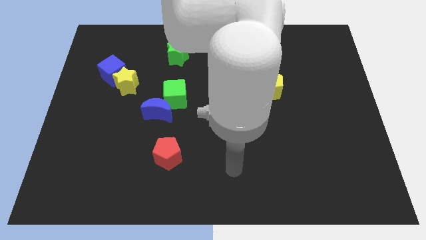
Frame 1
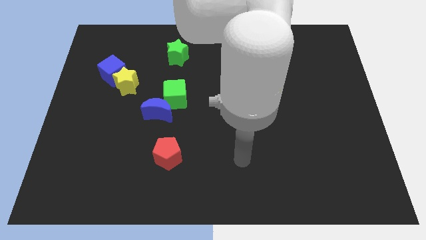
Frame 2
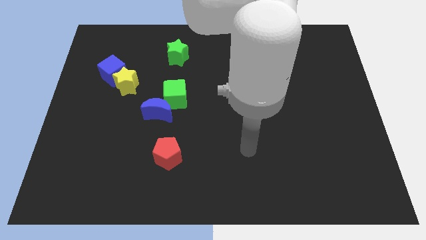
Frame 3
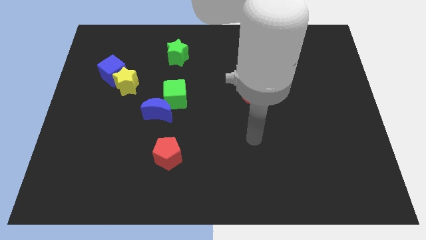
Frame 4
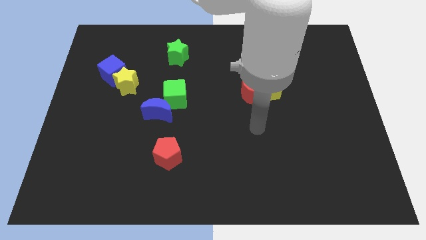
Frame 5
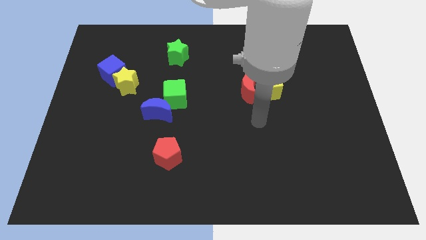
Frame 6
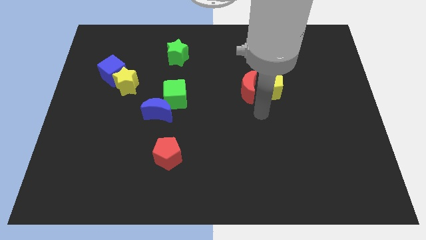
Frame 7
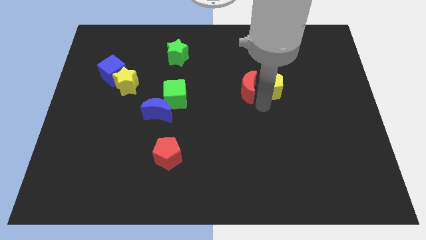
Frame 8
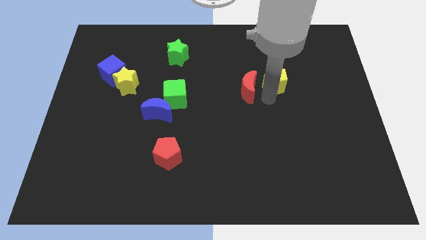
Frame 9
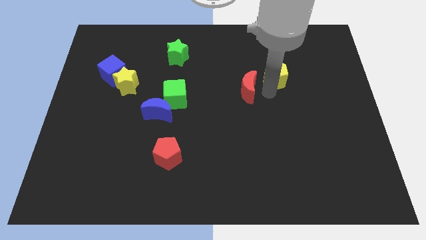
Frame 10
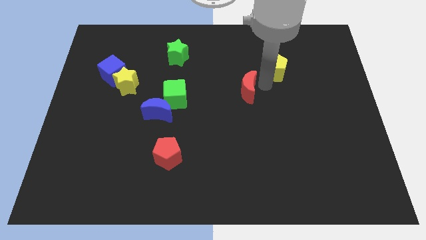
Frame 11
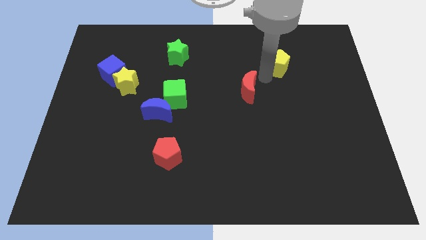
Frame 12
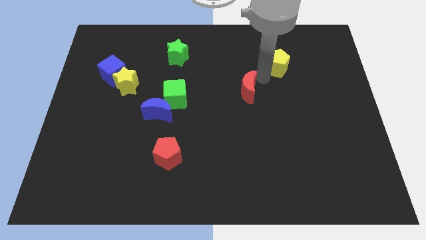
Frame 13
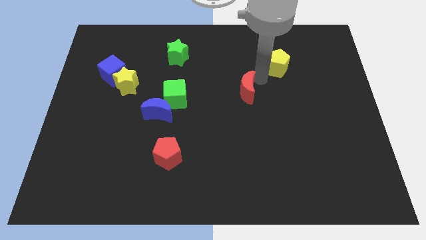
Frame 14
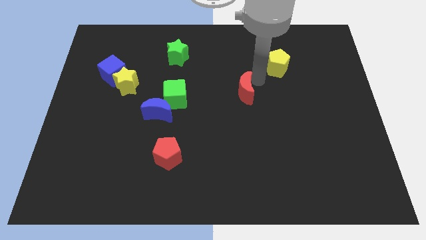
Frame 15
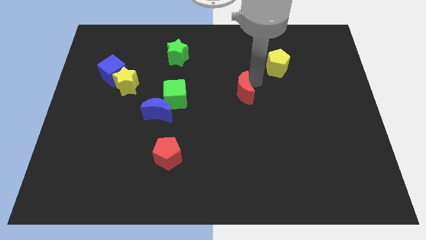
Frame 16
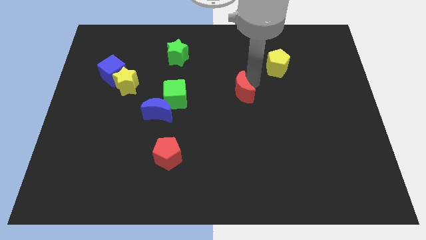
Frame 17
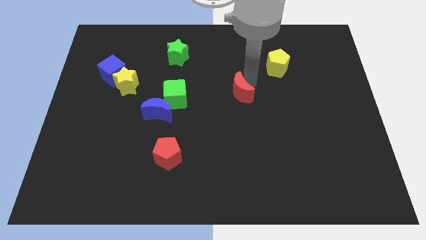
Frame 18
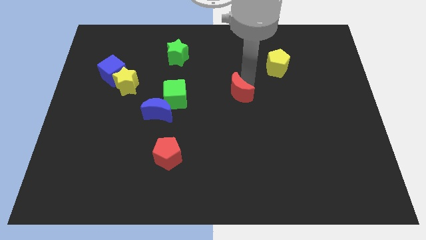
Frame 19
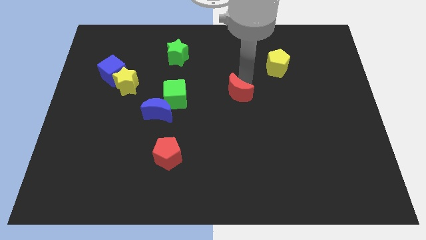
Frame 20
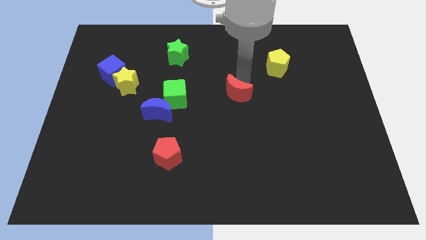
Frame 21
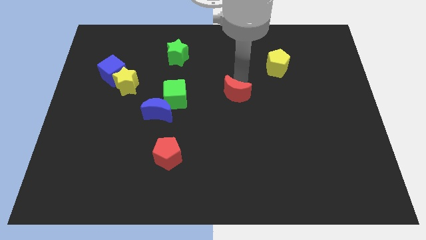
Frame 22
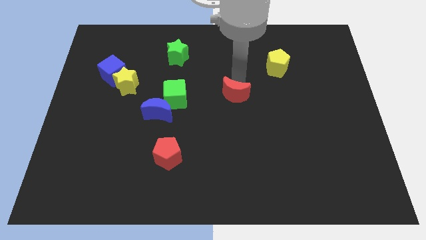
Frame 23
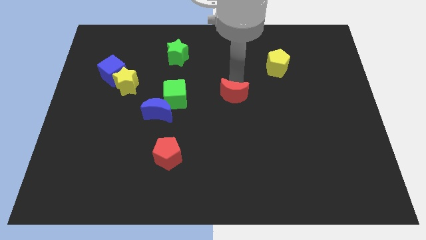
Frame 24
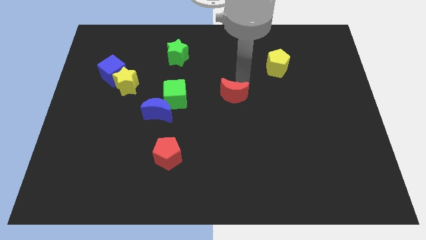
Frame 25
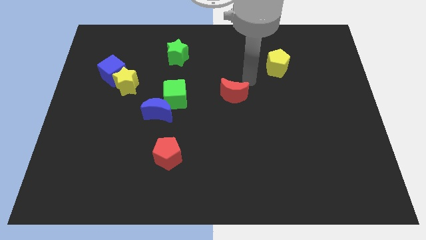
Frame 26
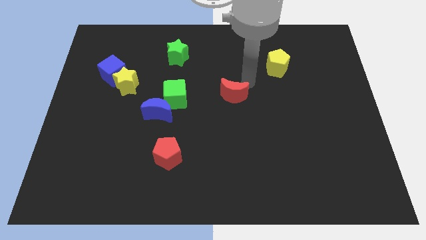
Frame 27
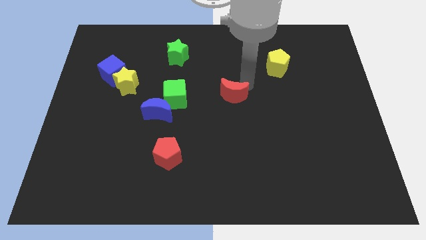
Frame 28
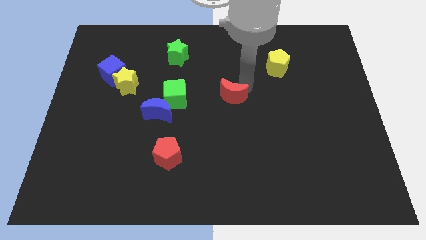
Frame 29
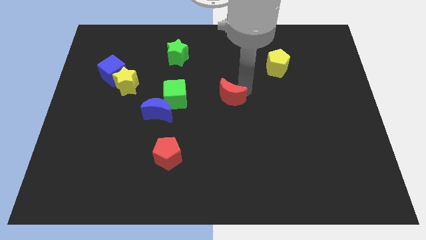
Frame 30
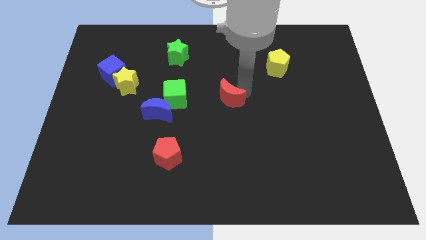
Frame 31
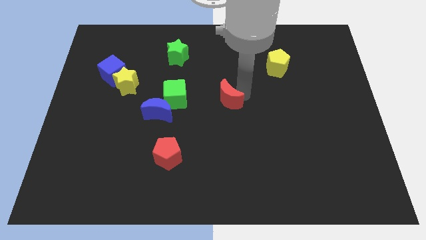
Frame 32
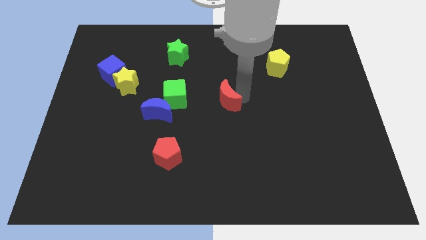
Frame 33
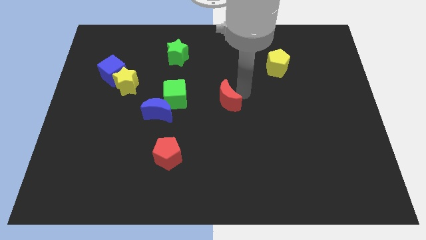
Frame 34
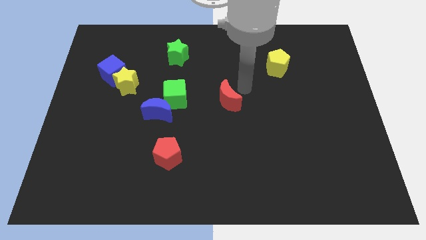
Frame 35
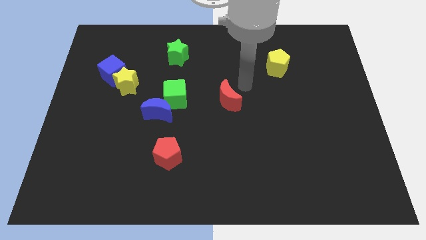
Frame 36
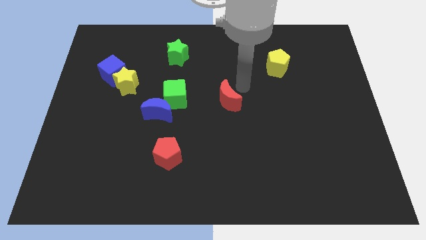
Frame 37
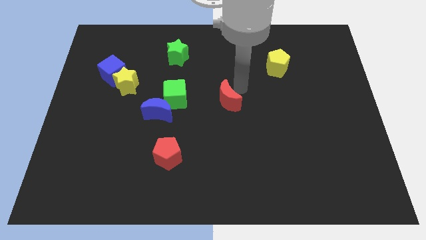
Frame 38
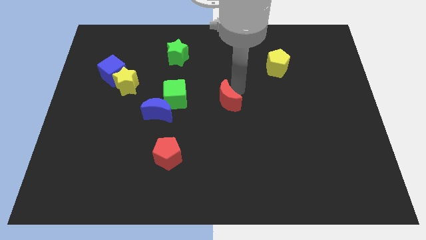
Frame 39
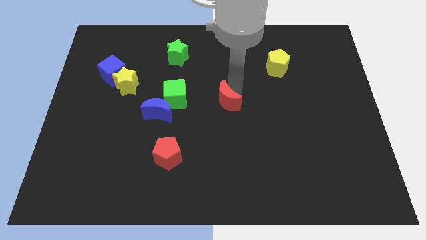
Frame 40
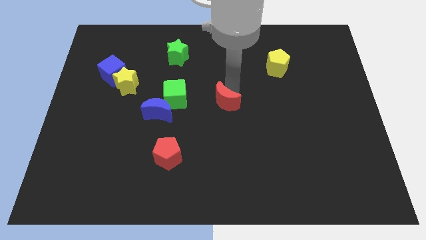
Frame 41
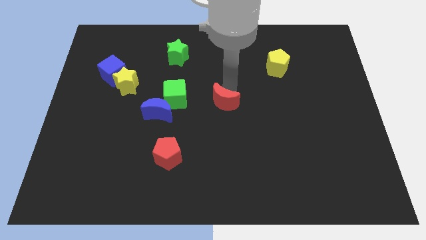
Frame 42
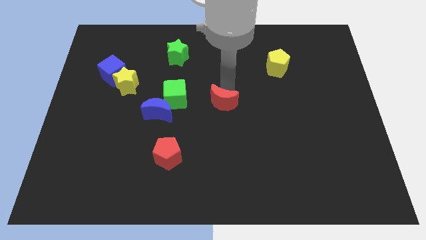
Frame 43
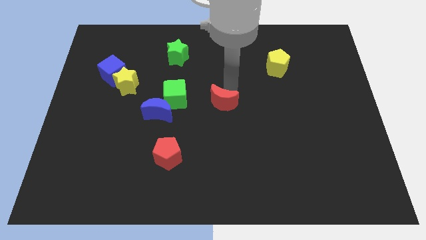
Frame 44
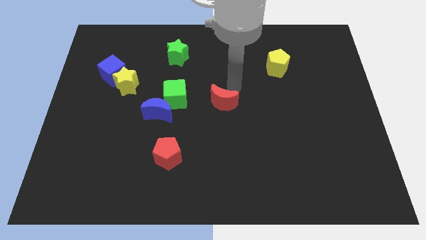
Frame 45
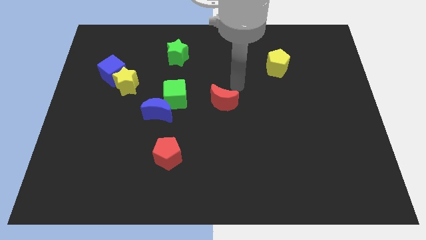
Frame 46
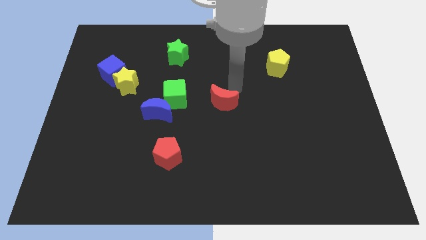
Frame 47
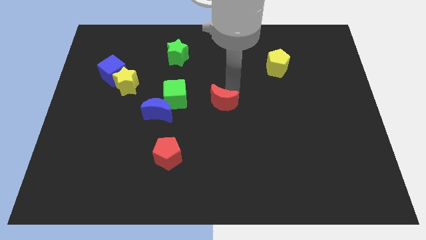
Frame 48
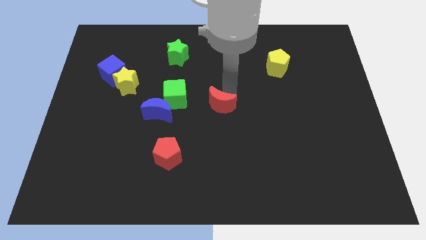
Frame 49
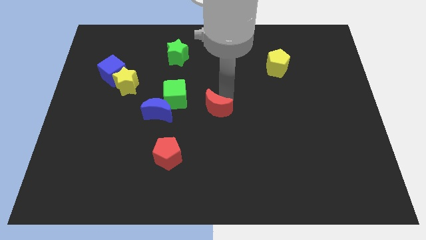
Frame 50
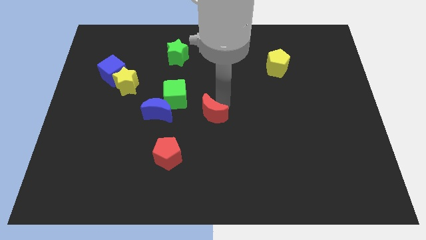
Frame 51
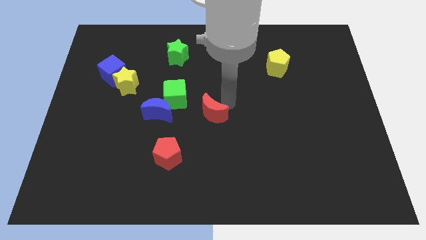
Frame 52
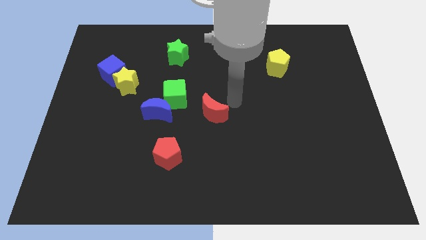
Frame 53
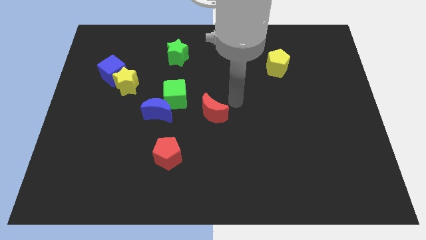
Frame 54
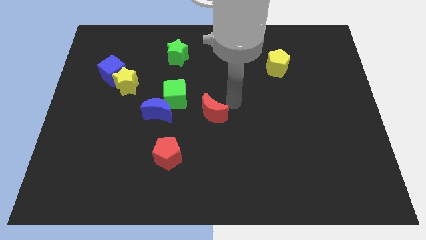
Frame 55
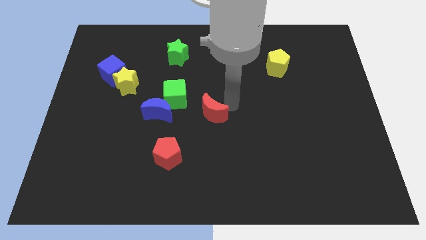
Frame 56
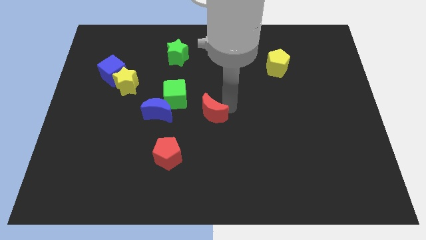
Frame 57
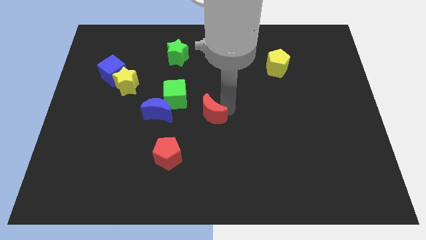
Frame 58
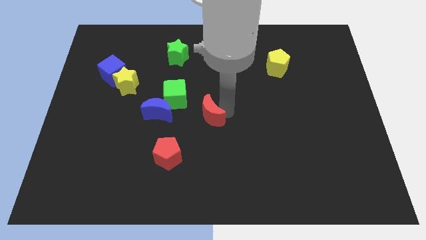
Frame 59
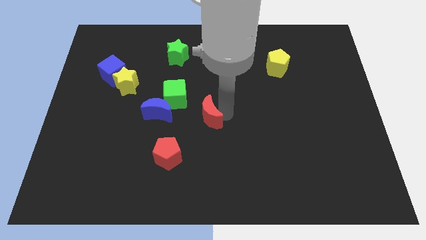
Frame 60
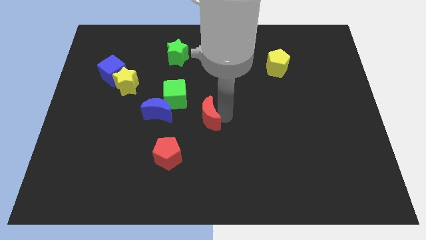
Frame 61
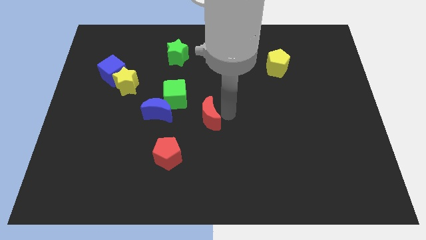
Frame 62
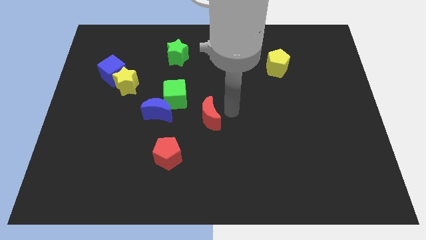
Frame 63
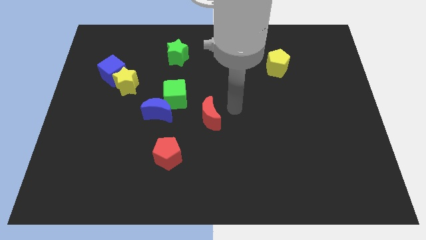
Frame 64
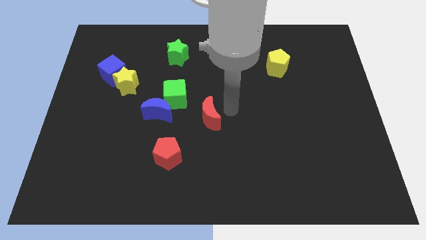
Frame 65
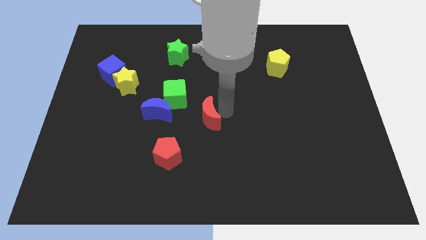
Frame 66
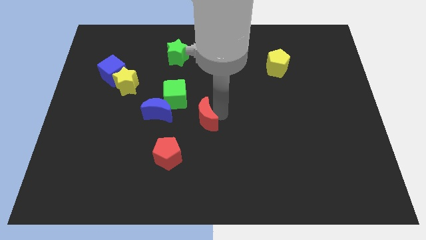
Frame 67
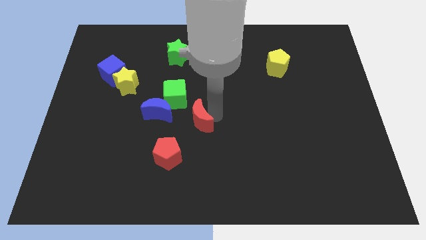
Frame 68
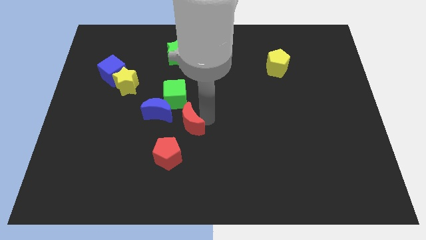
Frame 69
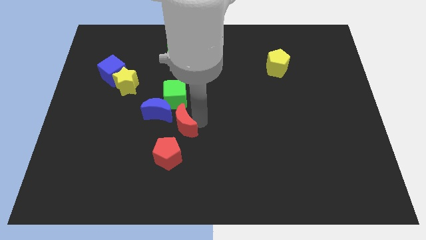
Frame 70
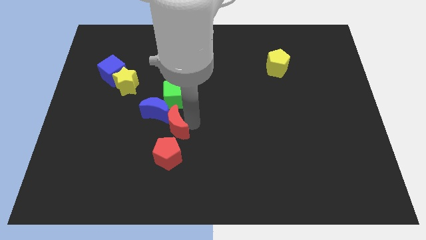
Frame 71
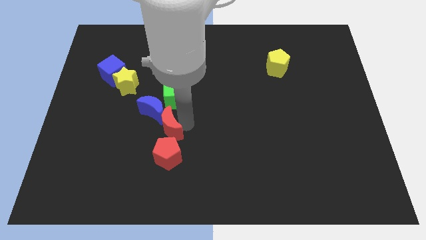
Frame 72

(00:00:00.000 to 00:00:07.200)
move the red moon to the top left side of the red pentagon
